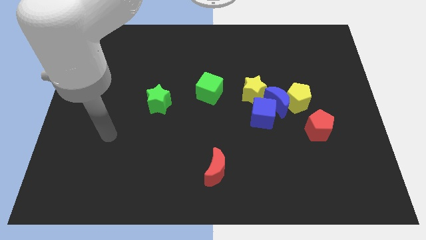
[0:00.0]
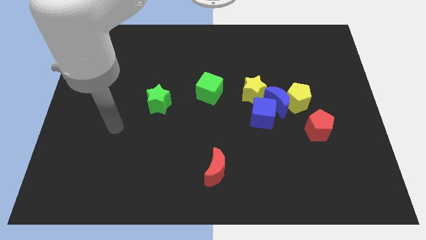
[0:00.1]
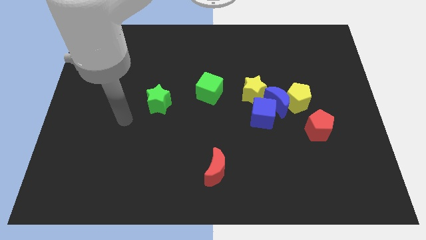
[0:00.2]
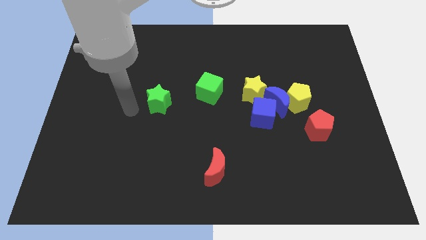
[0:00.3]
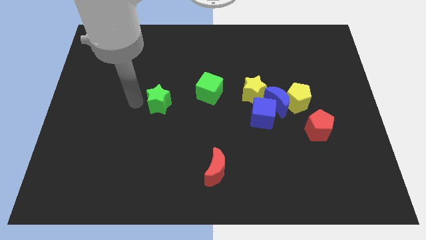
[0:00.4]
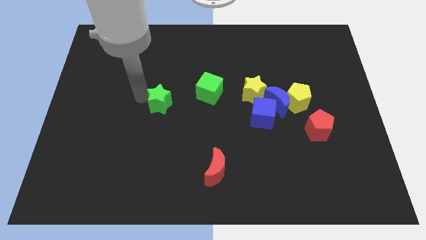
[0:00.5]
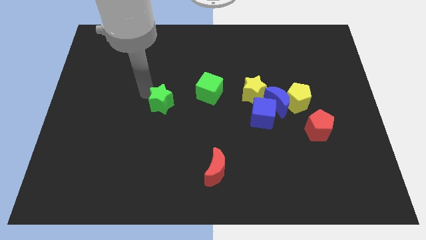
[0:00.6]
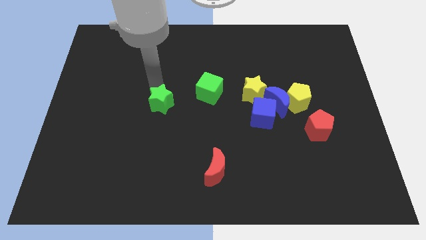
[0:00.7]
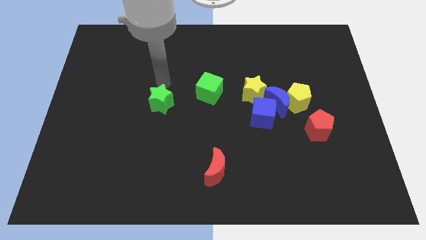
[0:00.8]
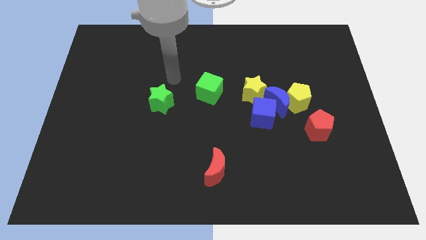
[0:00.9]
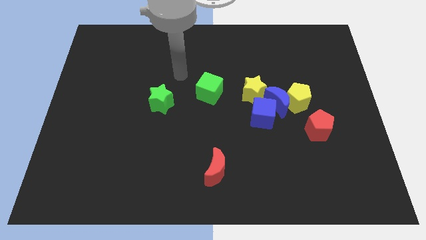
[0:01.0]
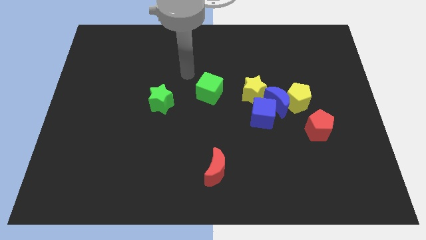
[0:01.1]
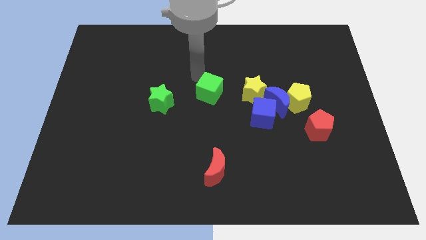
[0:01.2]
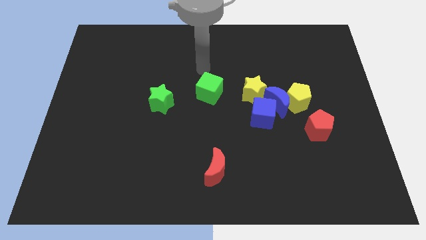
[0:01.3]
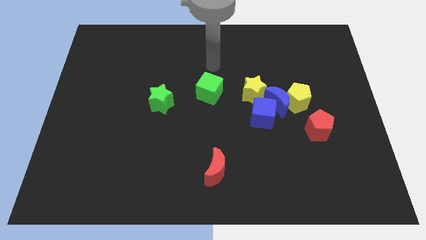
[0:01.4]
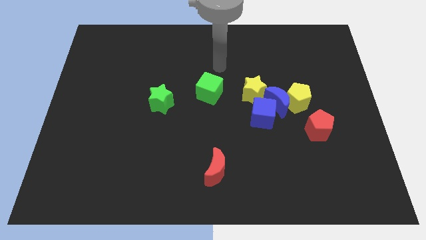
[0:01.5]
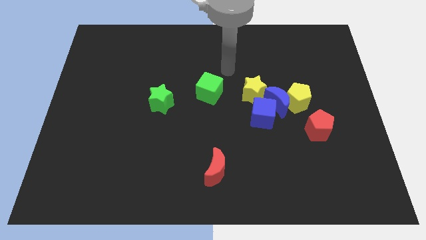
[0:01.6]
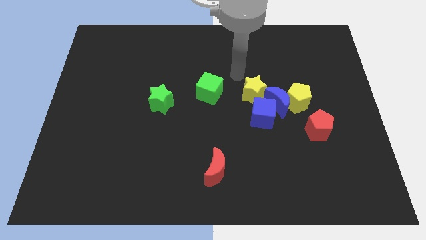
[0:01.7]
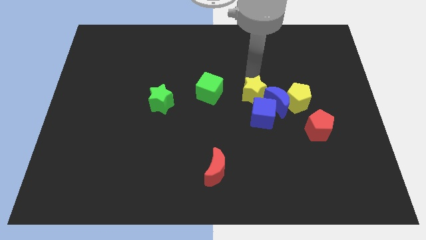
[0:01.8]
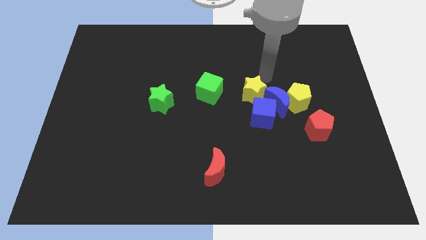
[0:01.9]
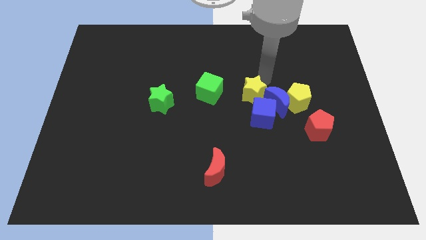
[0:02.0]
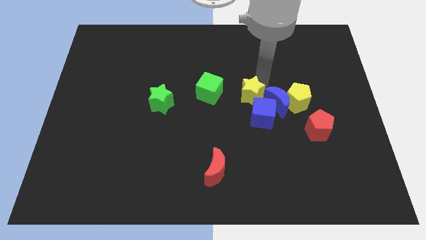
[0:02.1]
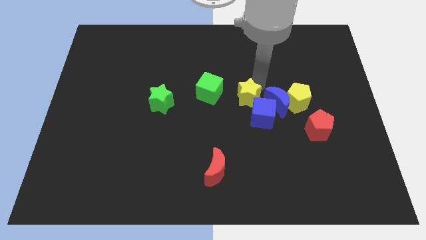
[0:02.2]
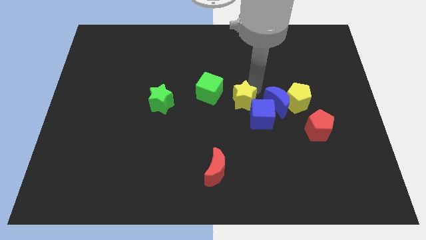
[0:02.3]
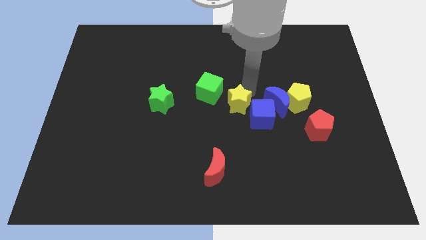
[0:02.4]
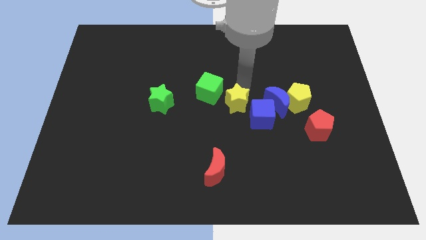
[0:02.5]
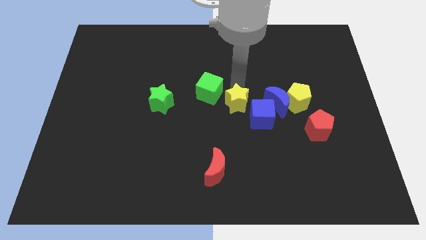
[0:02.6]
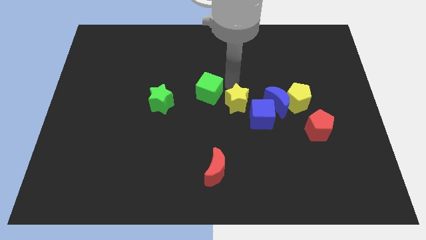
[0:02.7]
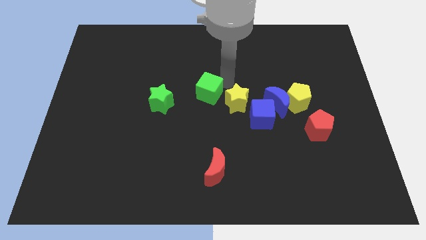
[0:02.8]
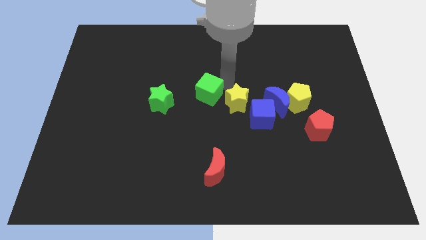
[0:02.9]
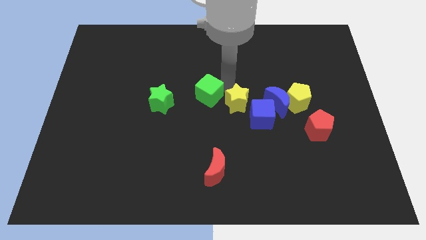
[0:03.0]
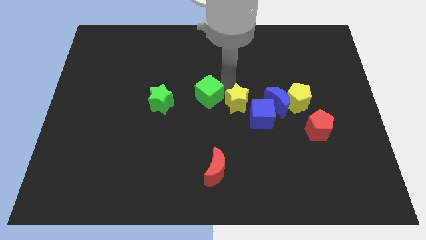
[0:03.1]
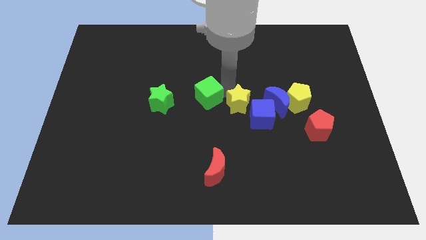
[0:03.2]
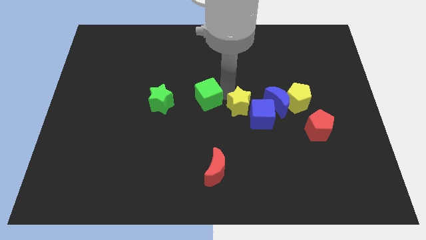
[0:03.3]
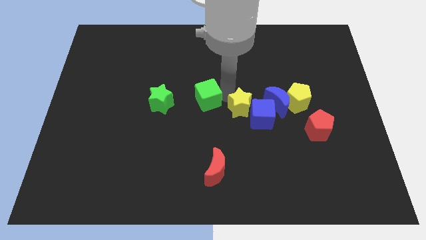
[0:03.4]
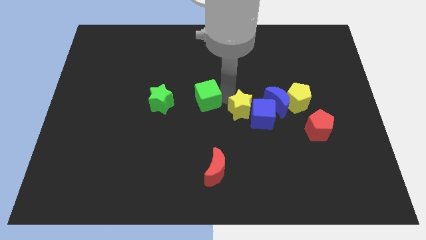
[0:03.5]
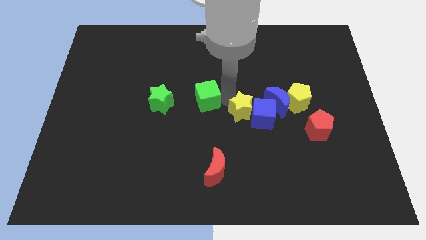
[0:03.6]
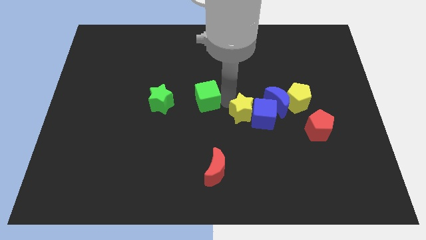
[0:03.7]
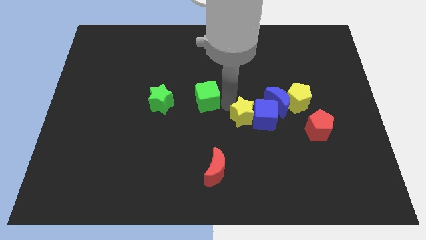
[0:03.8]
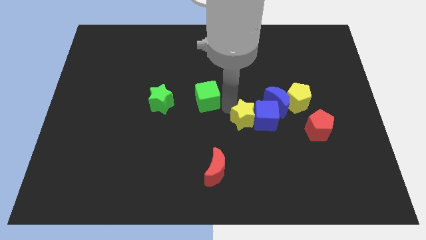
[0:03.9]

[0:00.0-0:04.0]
slightly move the yellow star downwards

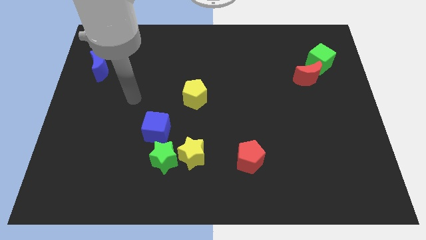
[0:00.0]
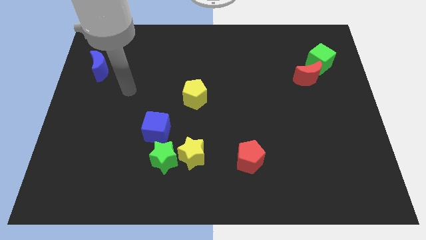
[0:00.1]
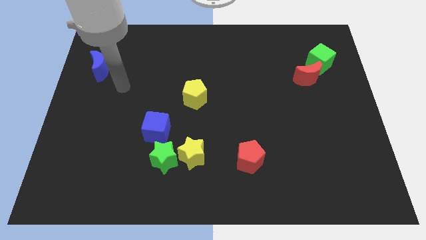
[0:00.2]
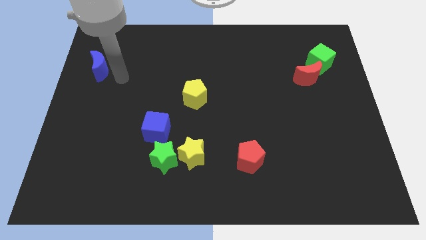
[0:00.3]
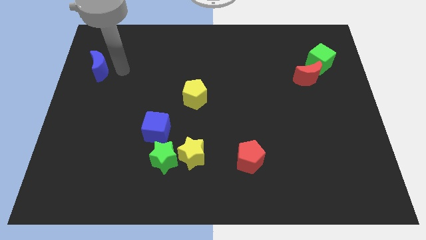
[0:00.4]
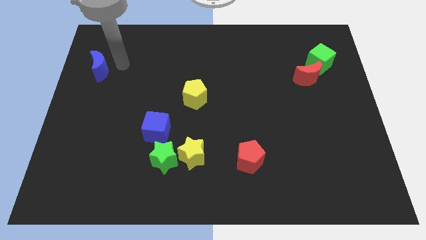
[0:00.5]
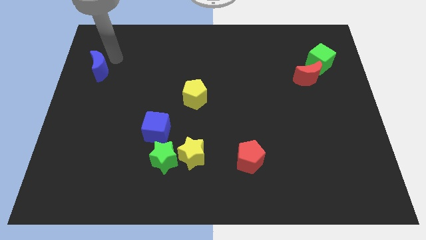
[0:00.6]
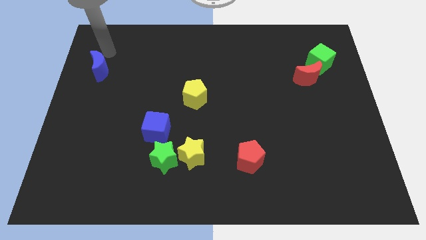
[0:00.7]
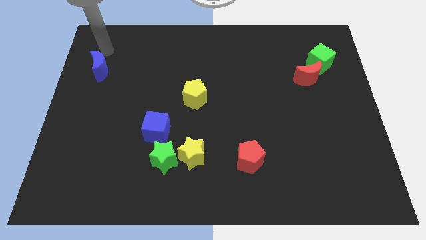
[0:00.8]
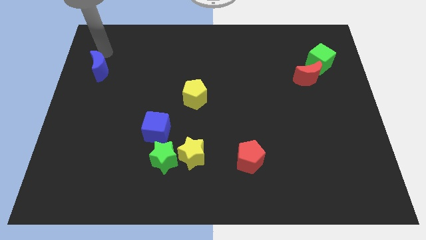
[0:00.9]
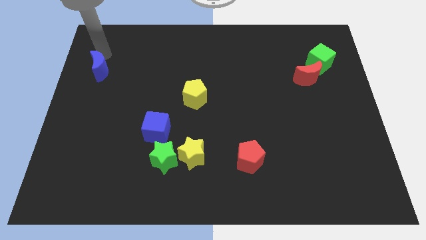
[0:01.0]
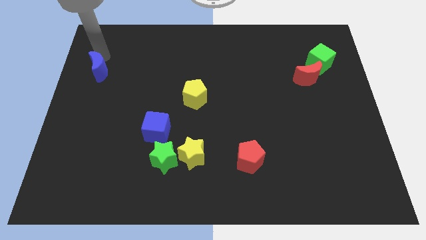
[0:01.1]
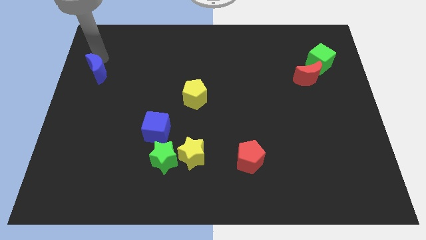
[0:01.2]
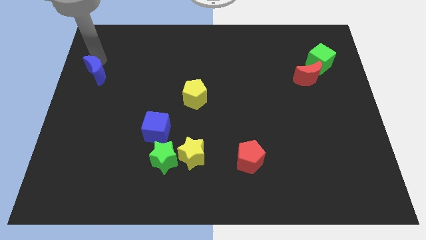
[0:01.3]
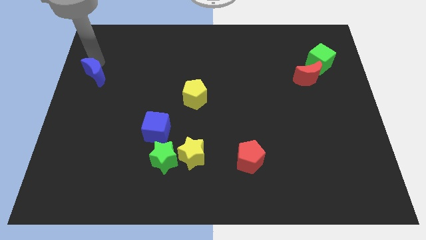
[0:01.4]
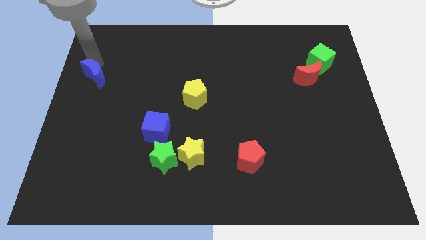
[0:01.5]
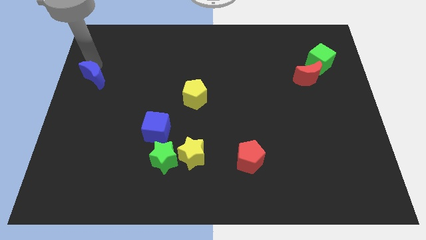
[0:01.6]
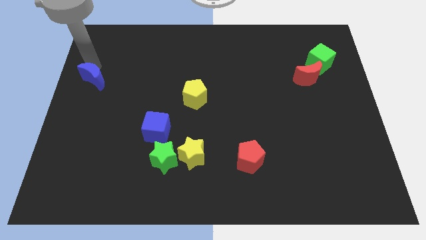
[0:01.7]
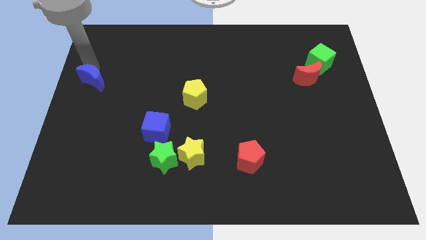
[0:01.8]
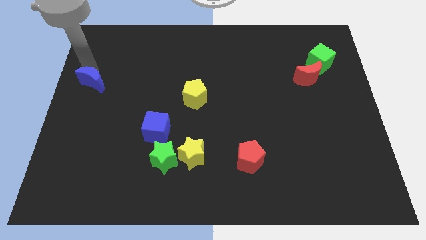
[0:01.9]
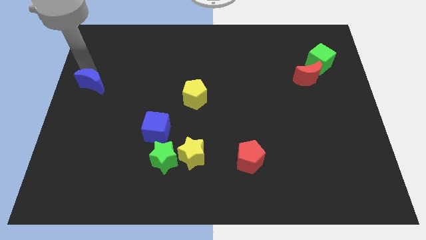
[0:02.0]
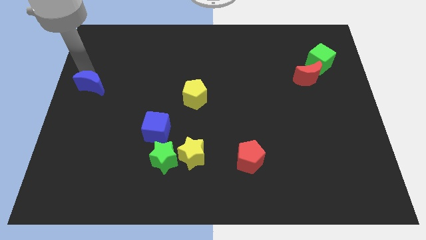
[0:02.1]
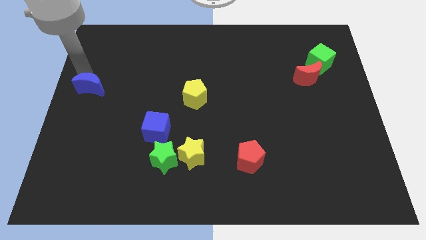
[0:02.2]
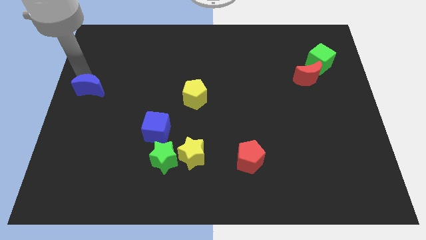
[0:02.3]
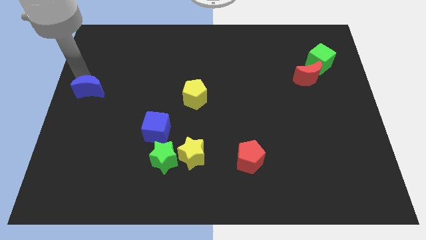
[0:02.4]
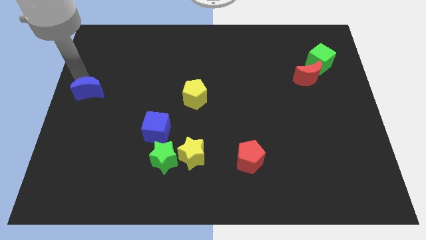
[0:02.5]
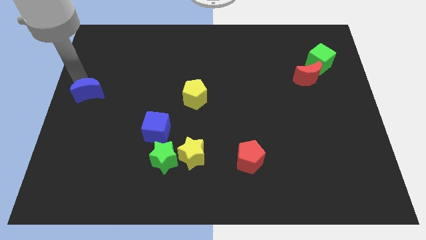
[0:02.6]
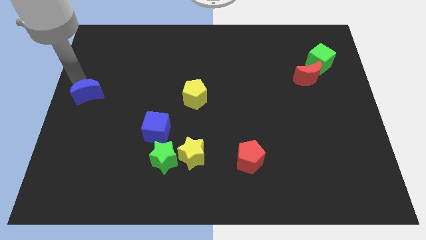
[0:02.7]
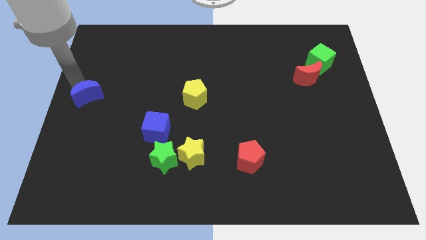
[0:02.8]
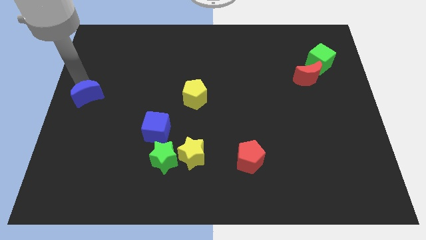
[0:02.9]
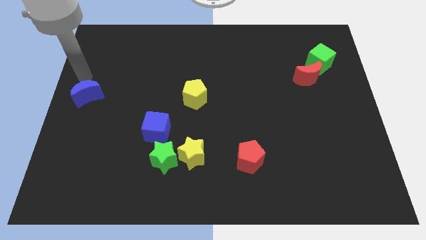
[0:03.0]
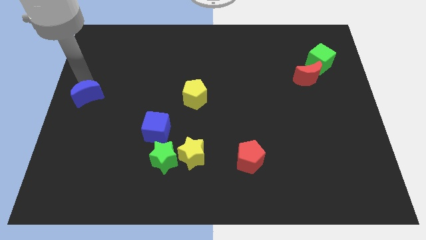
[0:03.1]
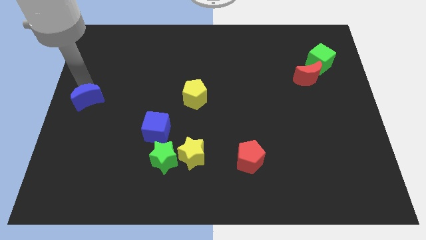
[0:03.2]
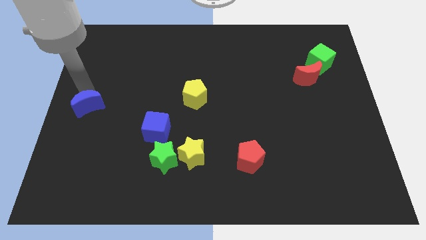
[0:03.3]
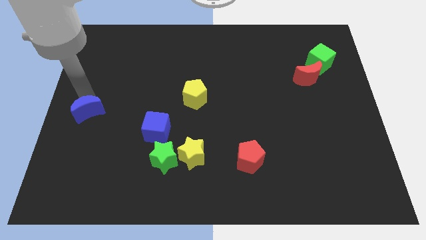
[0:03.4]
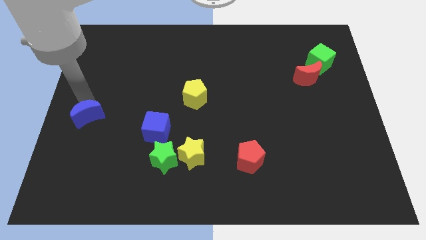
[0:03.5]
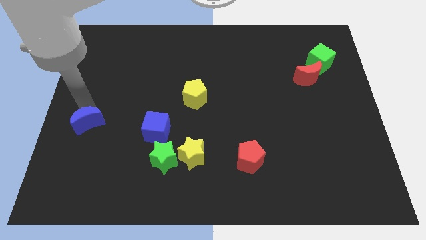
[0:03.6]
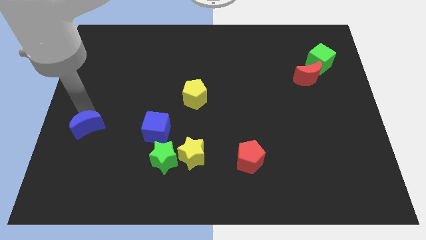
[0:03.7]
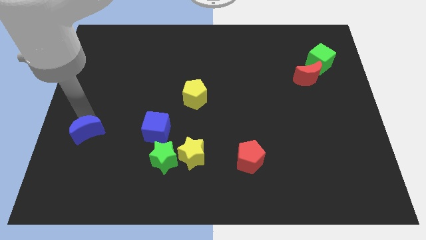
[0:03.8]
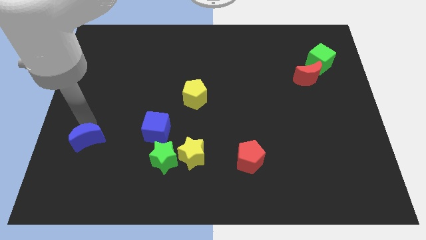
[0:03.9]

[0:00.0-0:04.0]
move the blue moon downwards

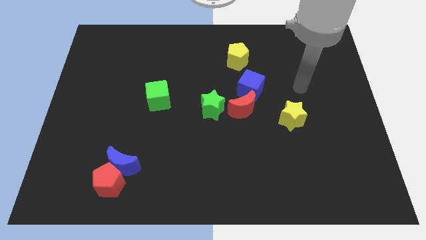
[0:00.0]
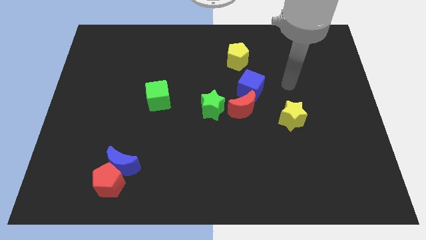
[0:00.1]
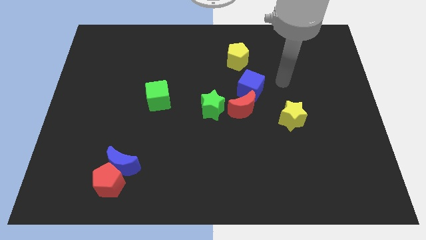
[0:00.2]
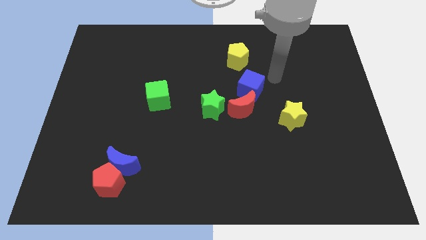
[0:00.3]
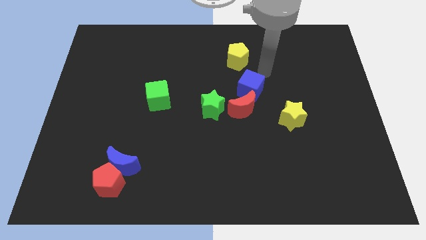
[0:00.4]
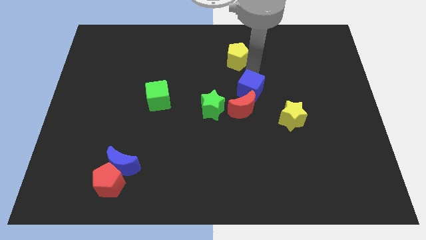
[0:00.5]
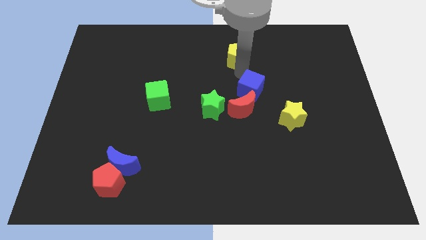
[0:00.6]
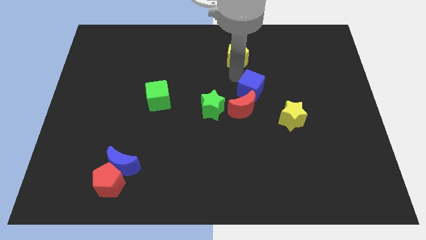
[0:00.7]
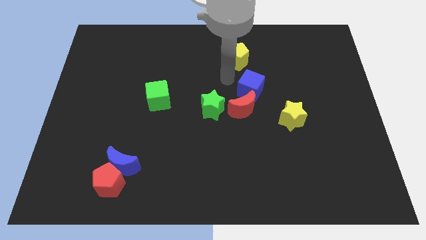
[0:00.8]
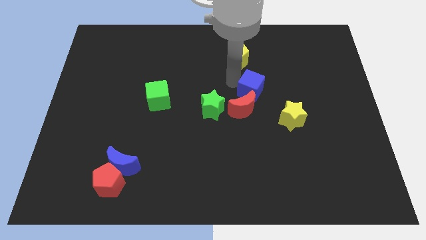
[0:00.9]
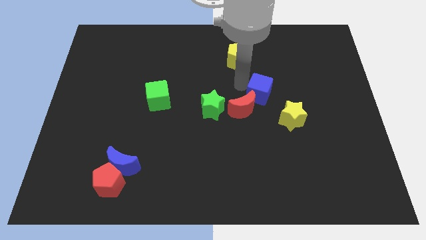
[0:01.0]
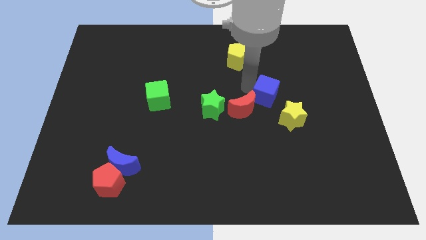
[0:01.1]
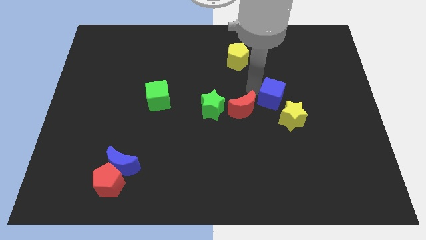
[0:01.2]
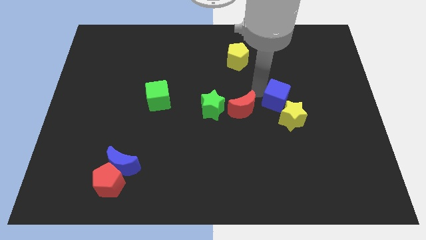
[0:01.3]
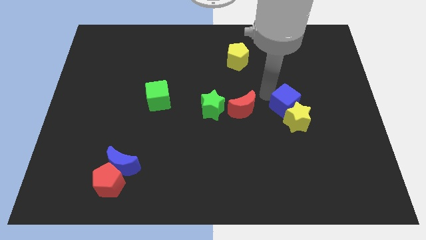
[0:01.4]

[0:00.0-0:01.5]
push the blue cube downwards and to the right a little
